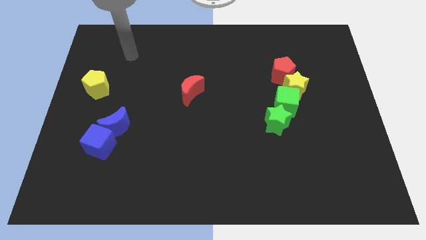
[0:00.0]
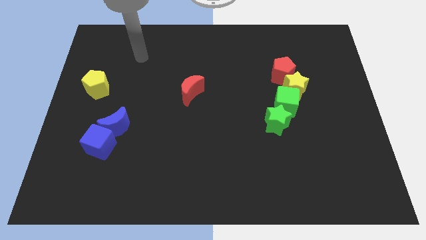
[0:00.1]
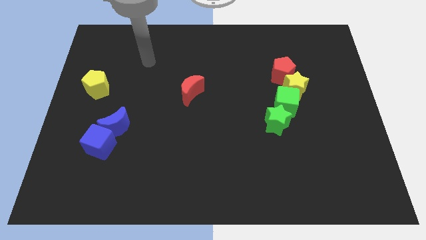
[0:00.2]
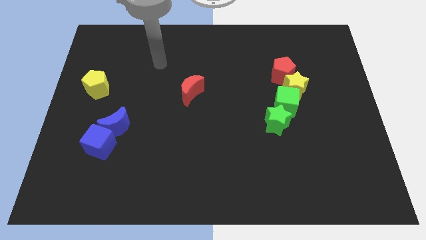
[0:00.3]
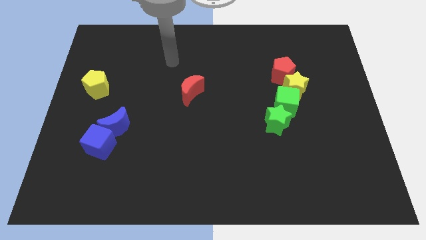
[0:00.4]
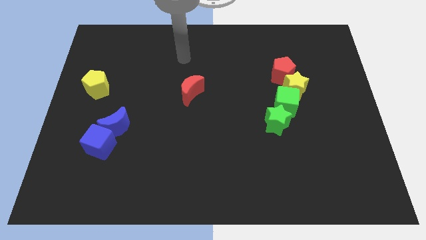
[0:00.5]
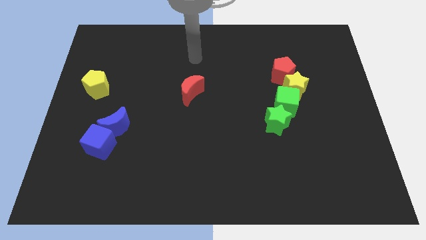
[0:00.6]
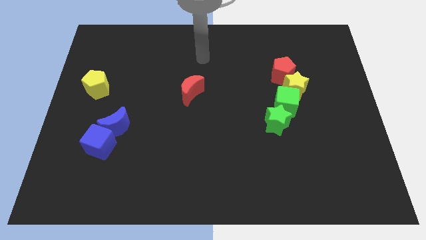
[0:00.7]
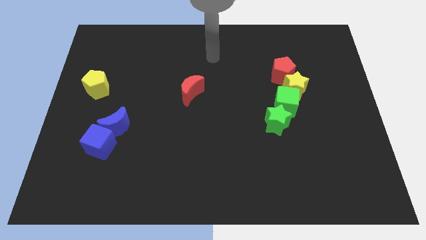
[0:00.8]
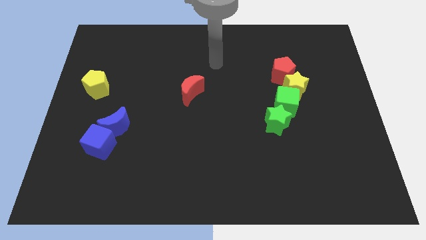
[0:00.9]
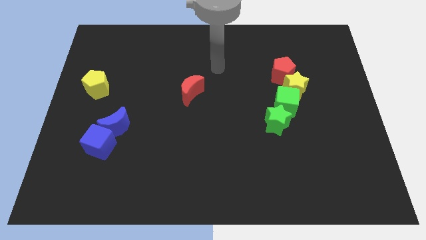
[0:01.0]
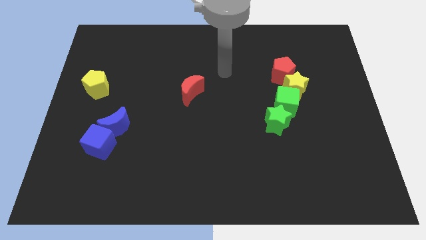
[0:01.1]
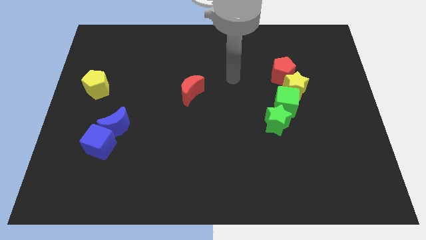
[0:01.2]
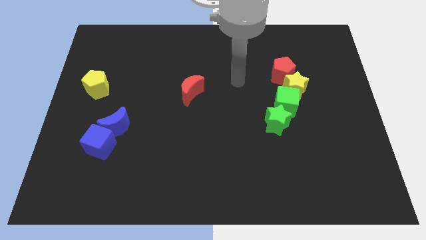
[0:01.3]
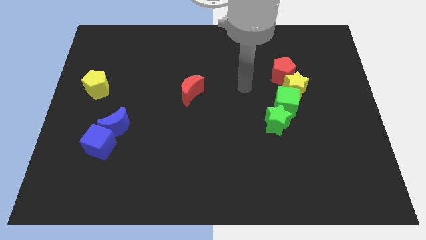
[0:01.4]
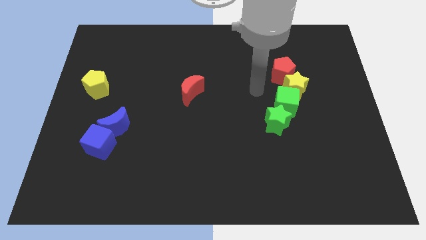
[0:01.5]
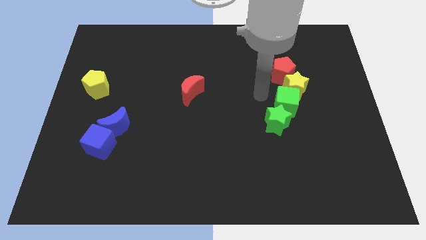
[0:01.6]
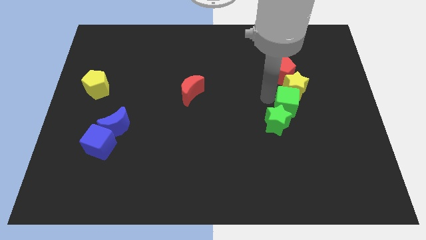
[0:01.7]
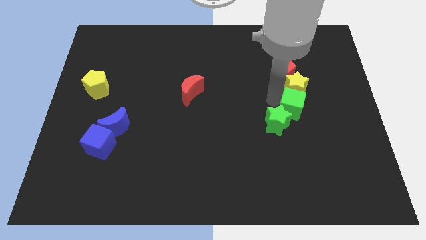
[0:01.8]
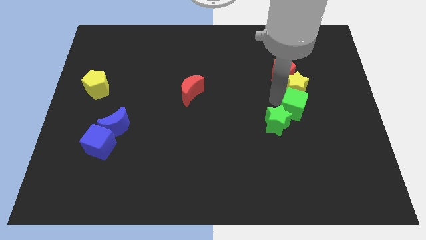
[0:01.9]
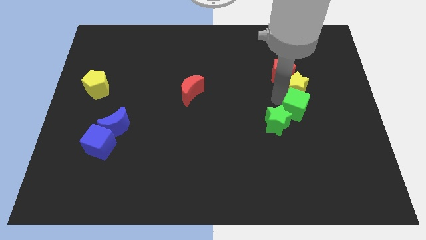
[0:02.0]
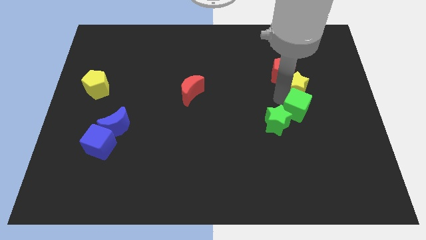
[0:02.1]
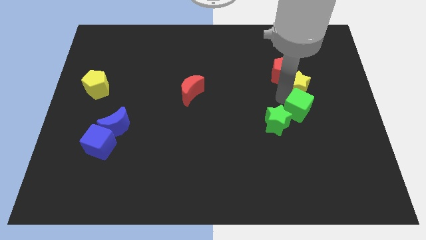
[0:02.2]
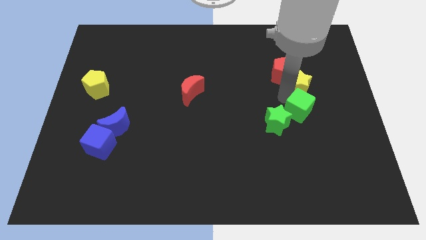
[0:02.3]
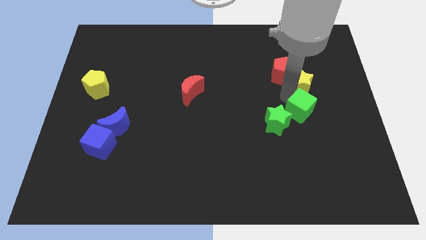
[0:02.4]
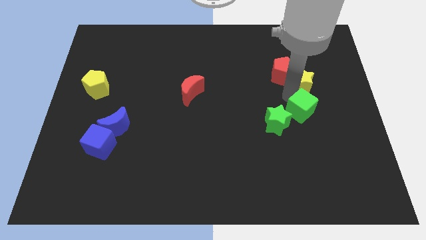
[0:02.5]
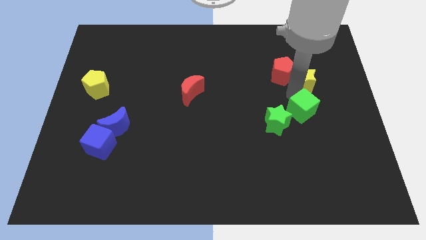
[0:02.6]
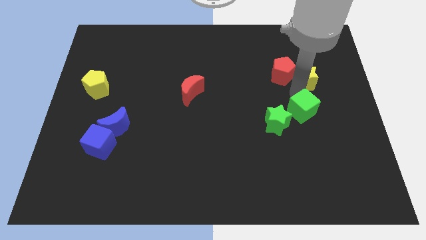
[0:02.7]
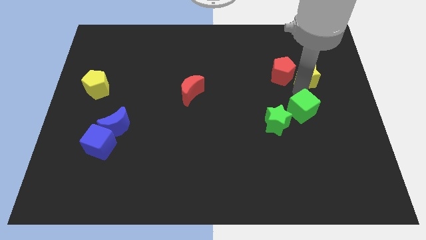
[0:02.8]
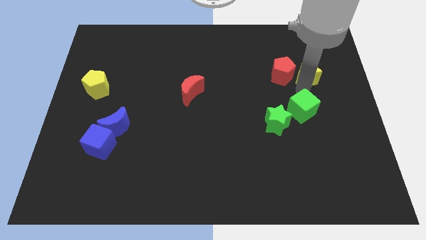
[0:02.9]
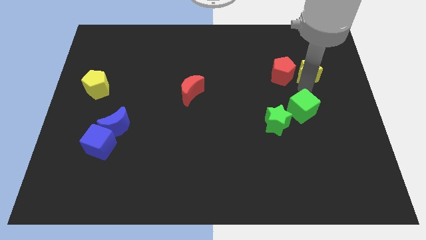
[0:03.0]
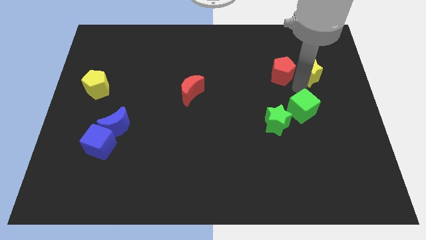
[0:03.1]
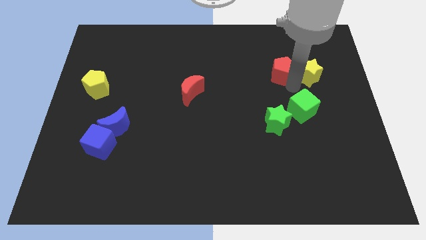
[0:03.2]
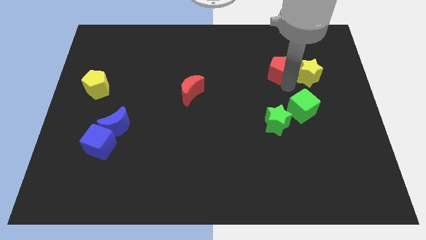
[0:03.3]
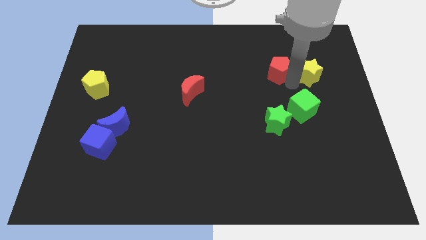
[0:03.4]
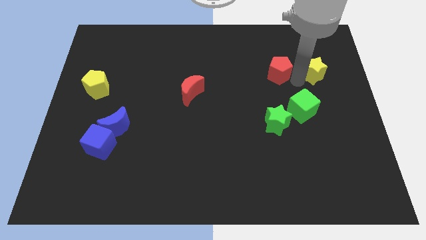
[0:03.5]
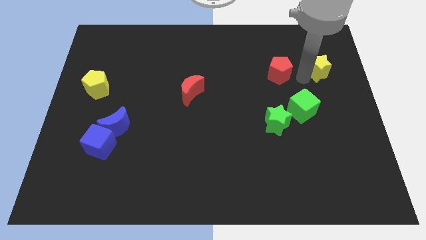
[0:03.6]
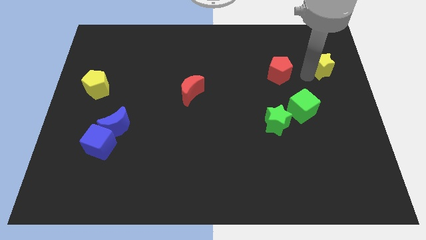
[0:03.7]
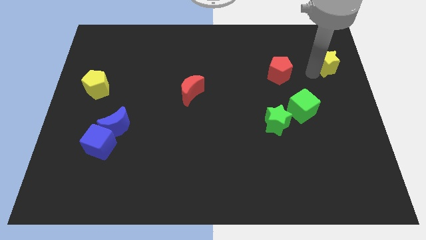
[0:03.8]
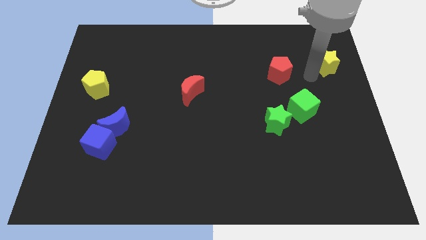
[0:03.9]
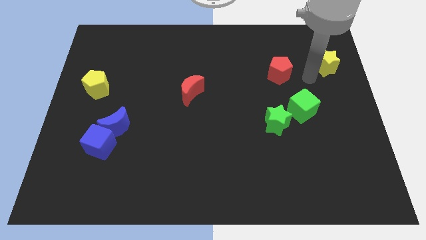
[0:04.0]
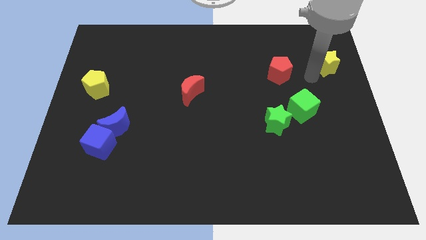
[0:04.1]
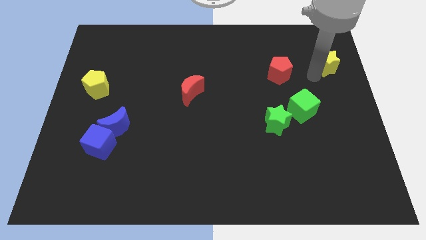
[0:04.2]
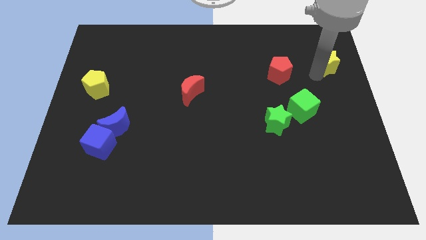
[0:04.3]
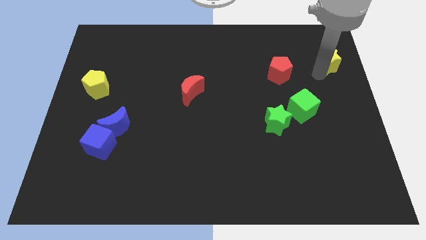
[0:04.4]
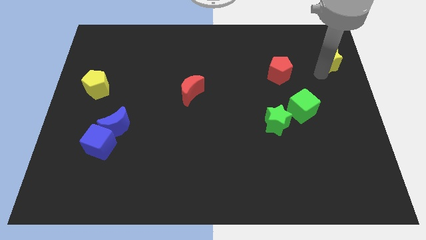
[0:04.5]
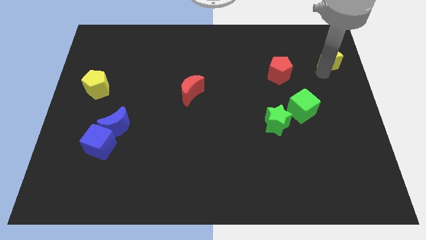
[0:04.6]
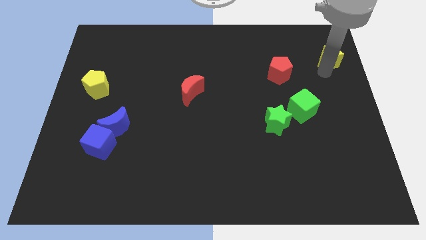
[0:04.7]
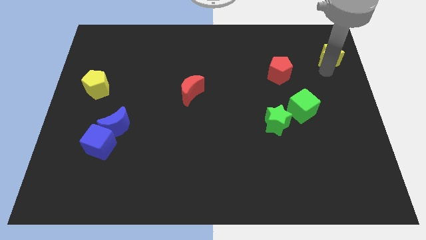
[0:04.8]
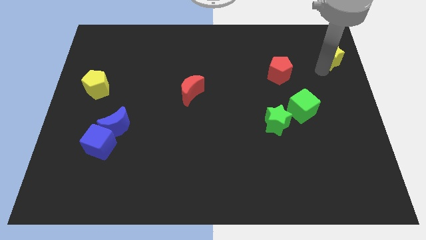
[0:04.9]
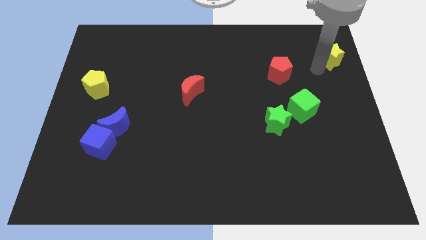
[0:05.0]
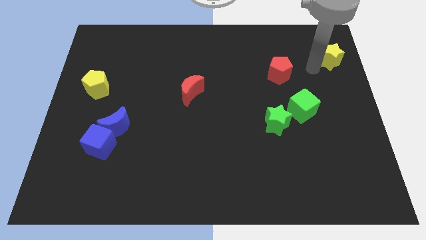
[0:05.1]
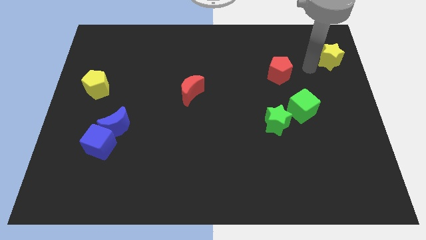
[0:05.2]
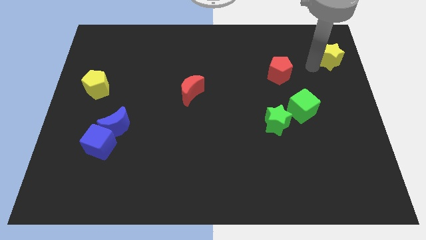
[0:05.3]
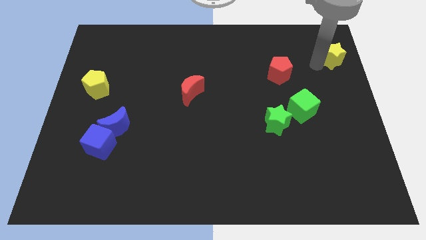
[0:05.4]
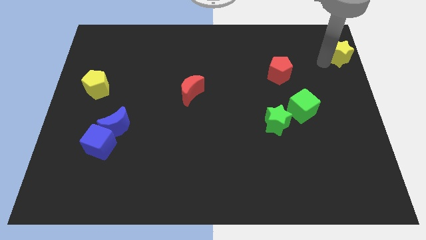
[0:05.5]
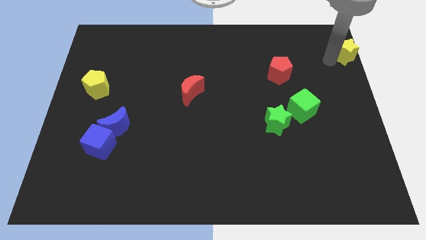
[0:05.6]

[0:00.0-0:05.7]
put the yellow star to the top right of the board

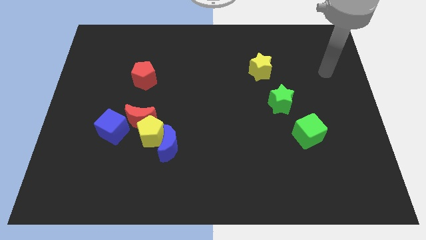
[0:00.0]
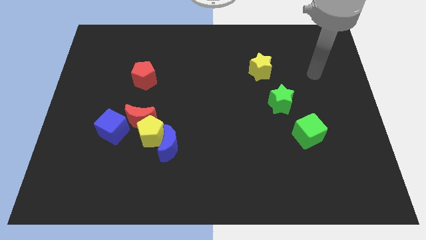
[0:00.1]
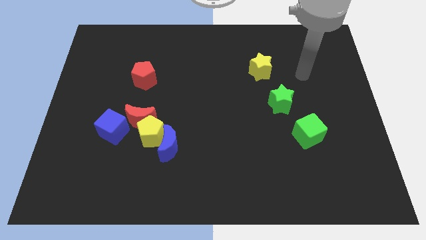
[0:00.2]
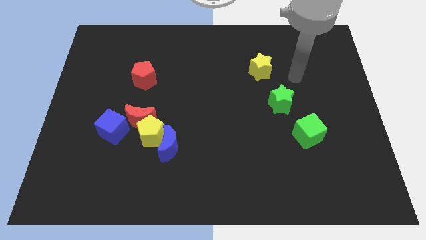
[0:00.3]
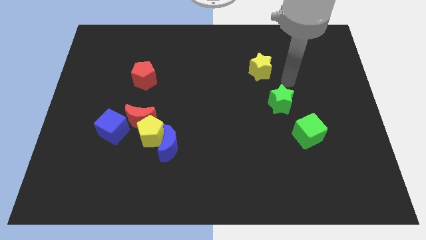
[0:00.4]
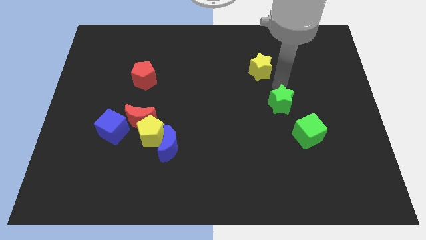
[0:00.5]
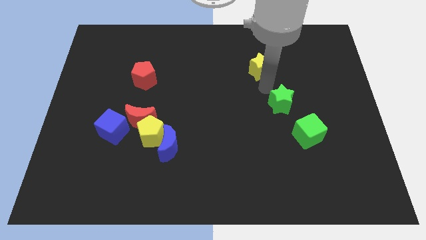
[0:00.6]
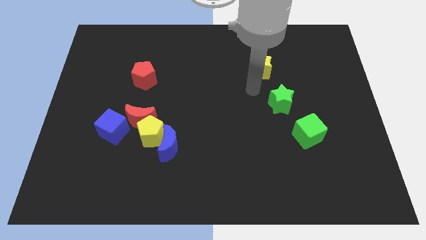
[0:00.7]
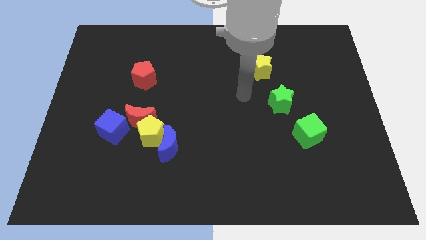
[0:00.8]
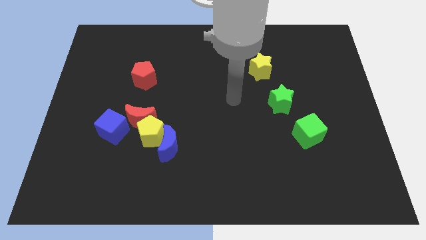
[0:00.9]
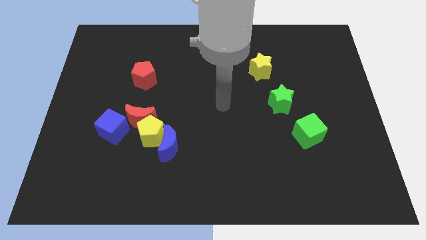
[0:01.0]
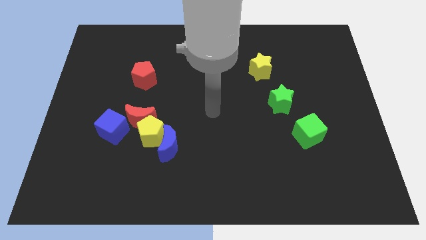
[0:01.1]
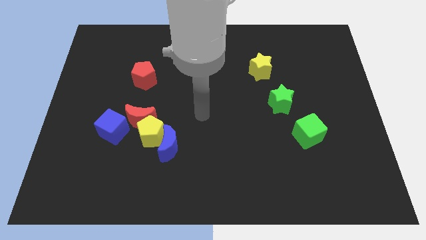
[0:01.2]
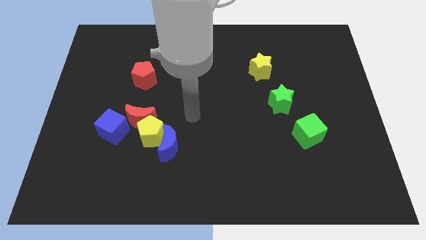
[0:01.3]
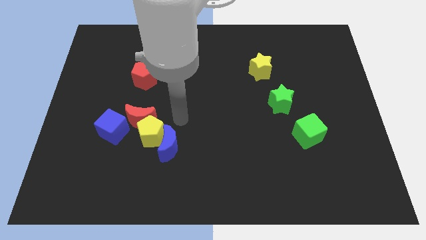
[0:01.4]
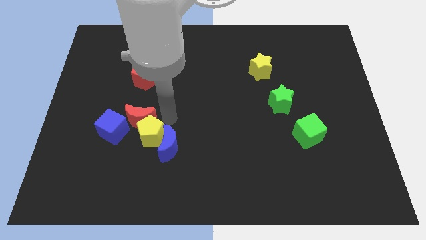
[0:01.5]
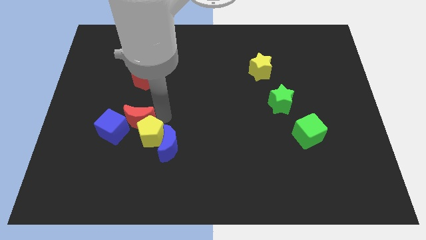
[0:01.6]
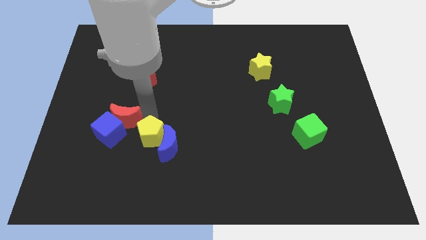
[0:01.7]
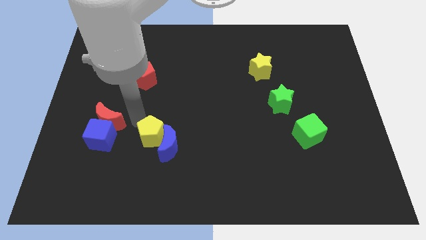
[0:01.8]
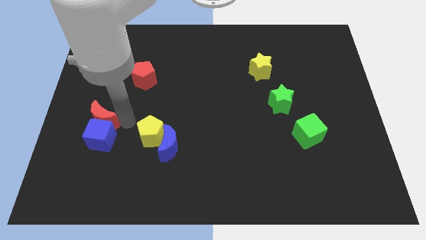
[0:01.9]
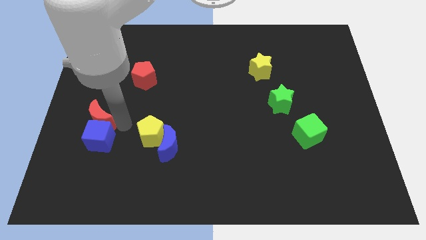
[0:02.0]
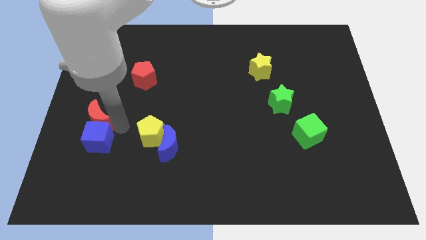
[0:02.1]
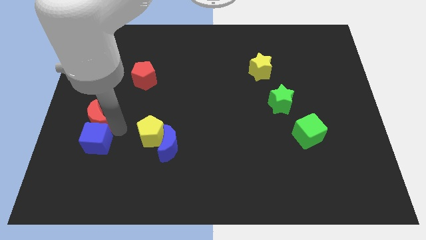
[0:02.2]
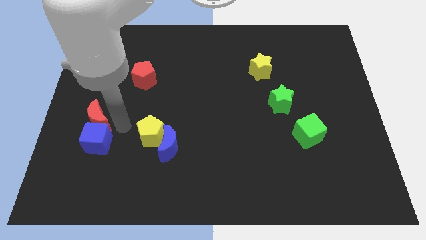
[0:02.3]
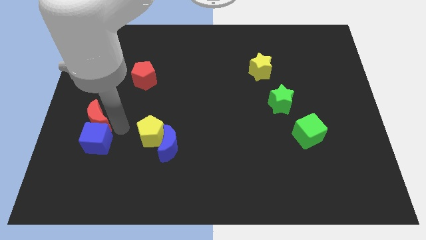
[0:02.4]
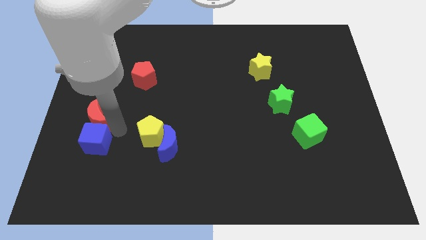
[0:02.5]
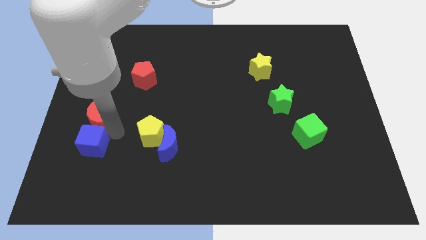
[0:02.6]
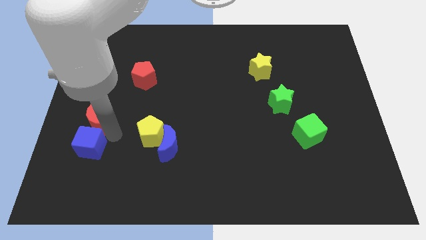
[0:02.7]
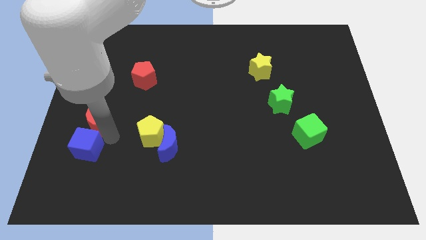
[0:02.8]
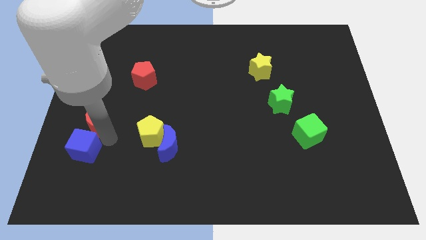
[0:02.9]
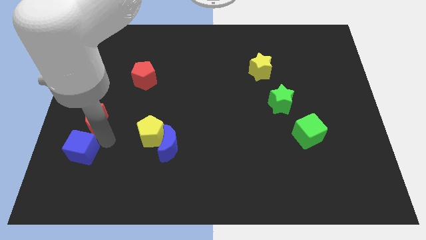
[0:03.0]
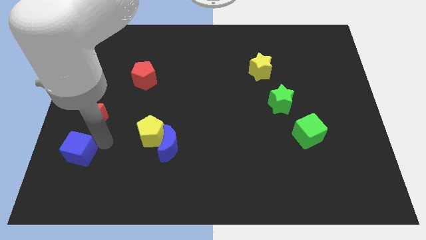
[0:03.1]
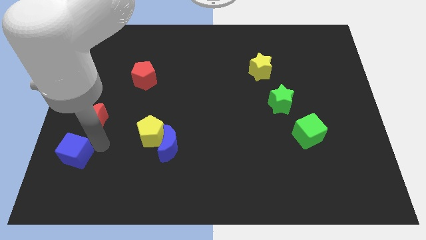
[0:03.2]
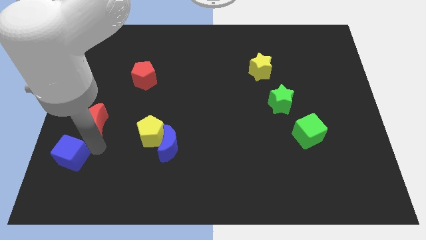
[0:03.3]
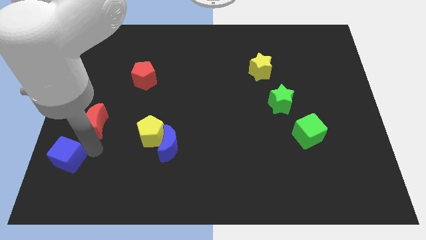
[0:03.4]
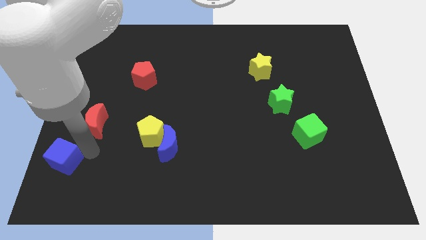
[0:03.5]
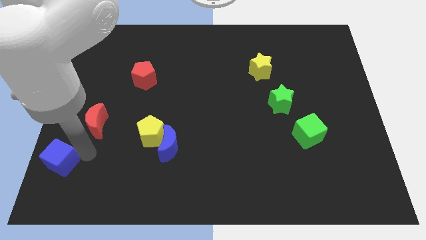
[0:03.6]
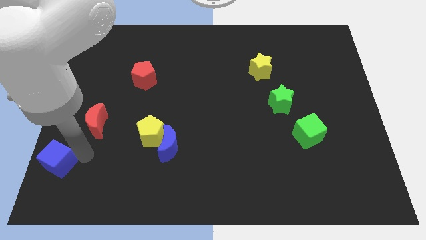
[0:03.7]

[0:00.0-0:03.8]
put the blue cube to the lower left corner
